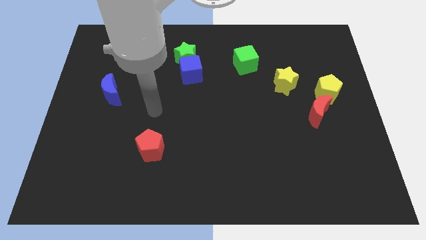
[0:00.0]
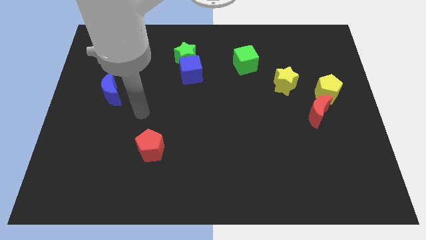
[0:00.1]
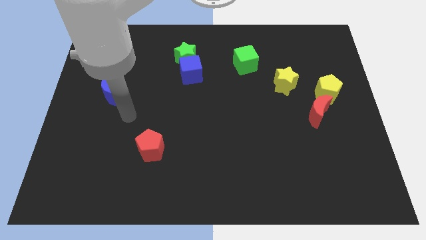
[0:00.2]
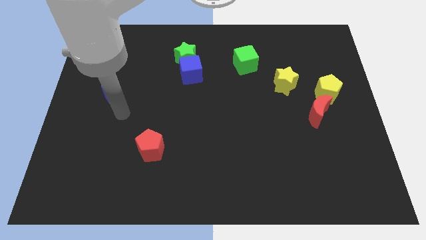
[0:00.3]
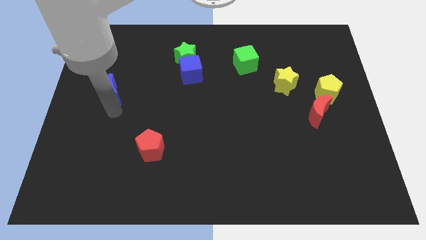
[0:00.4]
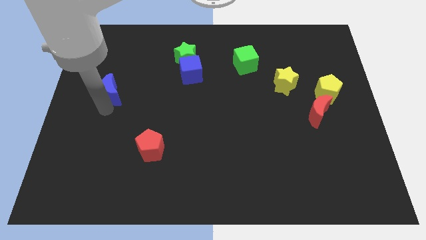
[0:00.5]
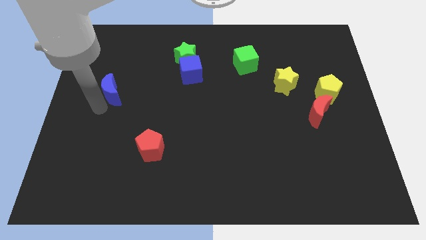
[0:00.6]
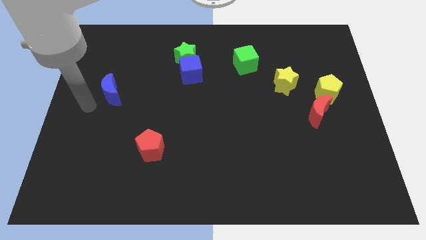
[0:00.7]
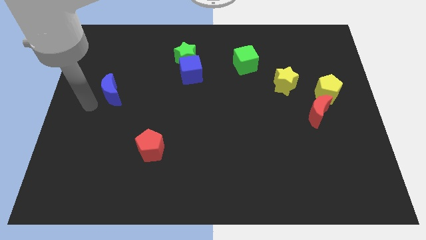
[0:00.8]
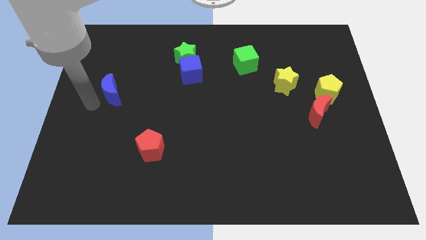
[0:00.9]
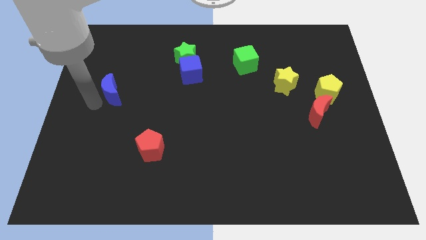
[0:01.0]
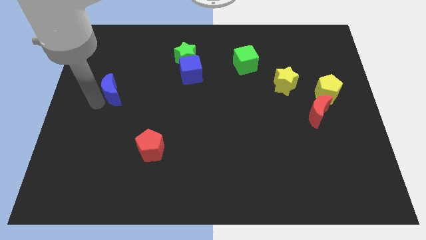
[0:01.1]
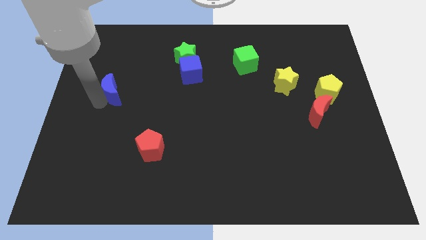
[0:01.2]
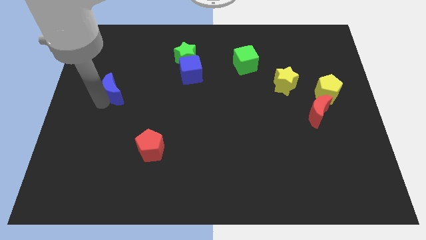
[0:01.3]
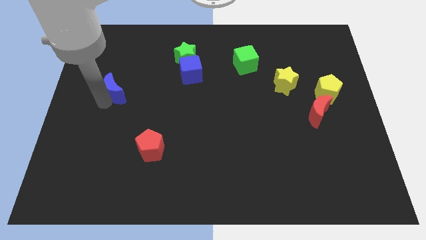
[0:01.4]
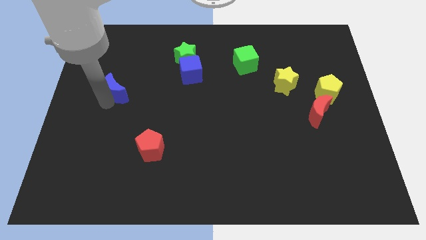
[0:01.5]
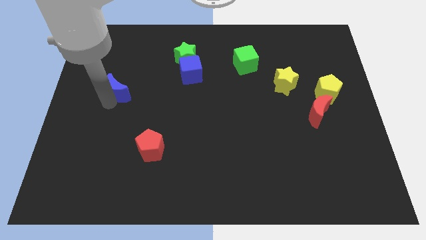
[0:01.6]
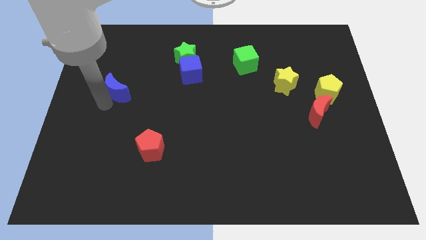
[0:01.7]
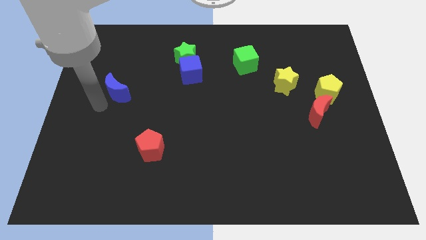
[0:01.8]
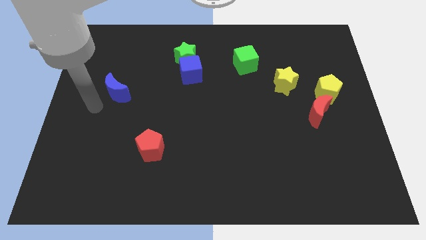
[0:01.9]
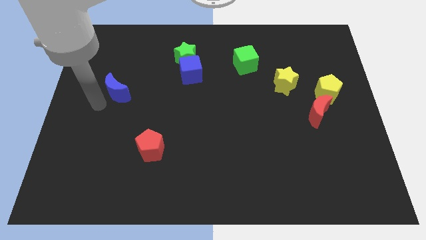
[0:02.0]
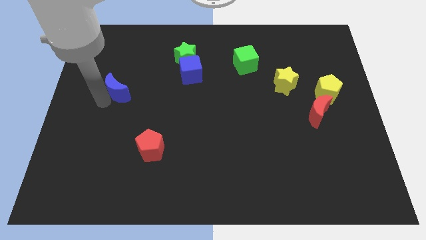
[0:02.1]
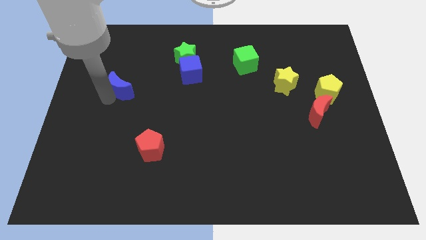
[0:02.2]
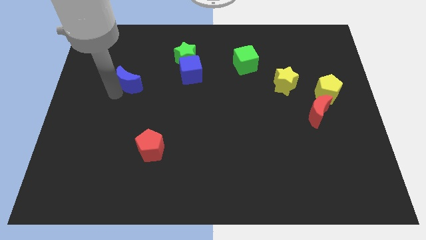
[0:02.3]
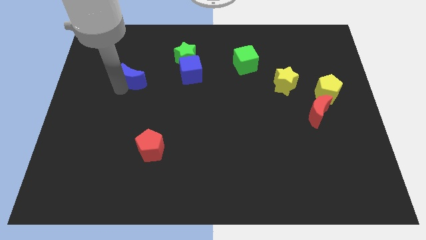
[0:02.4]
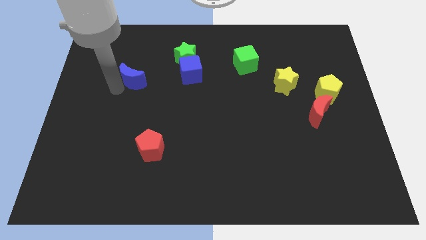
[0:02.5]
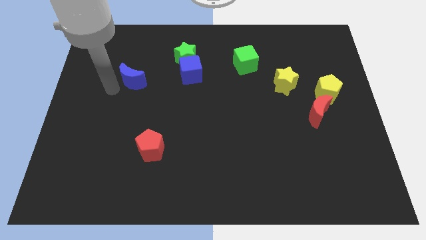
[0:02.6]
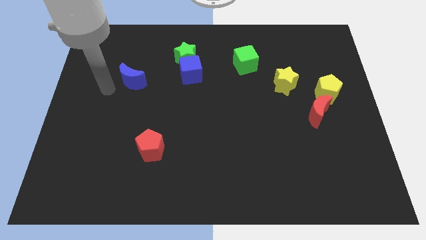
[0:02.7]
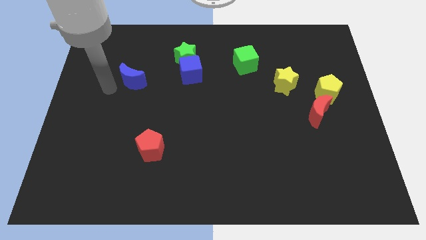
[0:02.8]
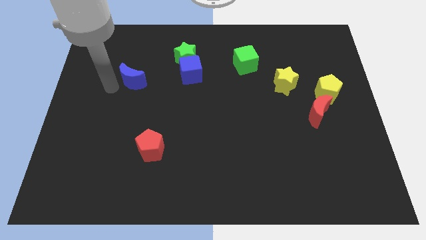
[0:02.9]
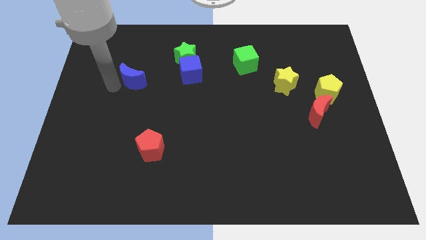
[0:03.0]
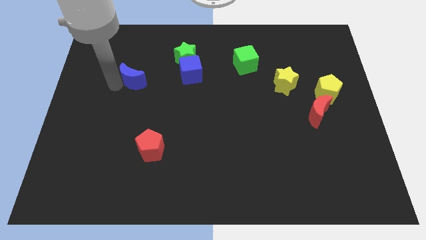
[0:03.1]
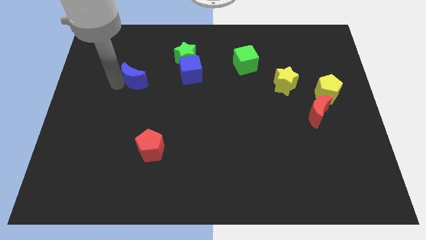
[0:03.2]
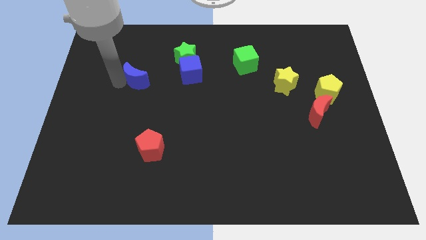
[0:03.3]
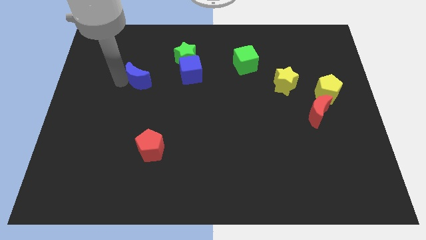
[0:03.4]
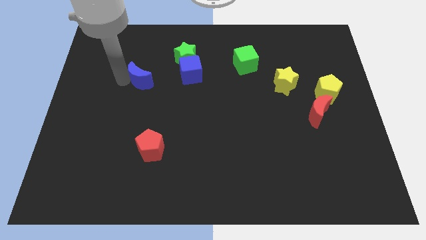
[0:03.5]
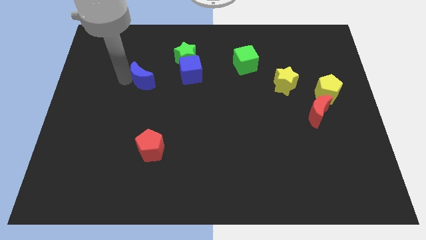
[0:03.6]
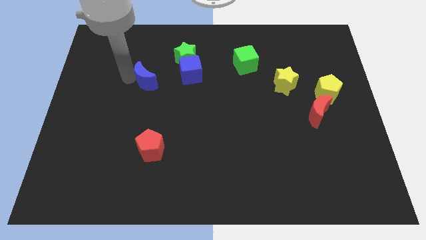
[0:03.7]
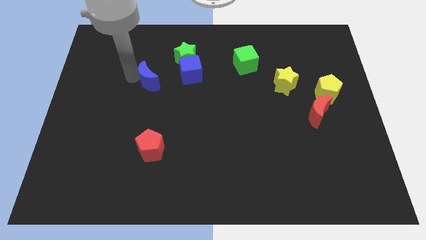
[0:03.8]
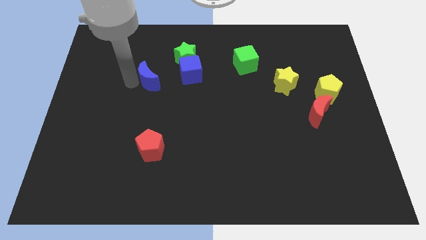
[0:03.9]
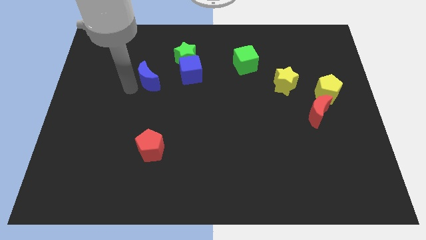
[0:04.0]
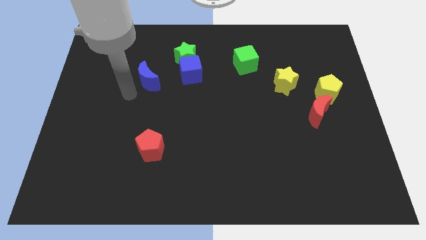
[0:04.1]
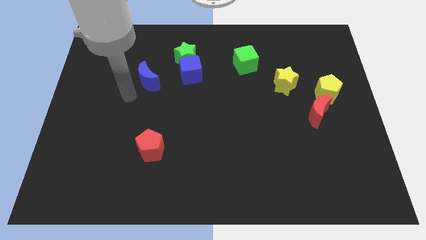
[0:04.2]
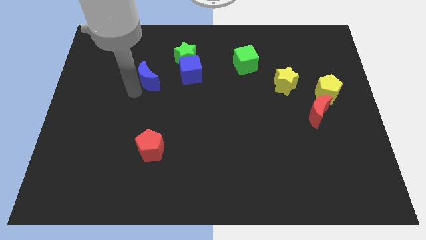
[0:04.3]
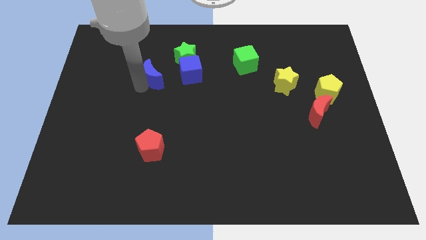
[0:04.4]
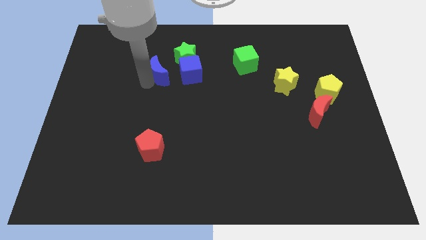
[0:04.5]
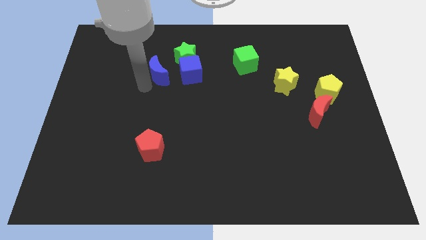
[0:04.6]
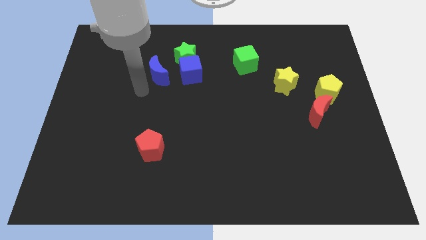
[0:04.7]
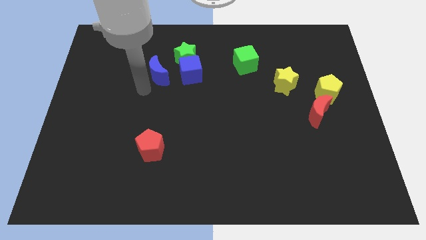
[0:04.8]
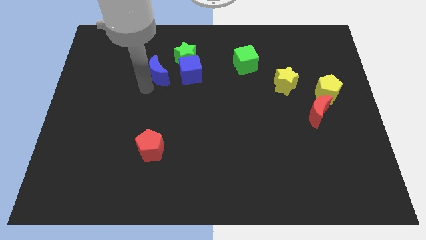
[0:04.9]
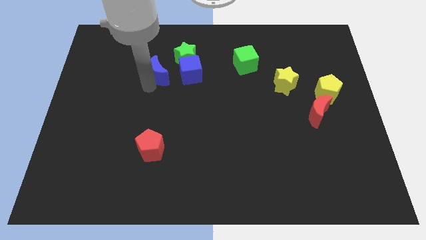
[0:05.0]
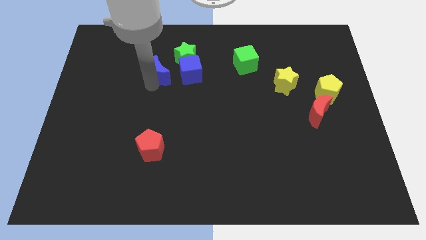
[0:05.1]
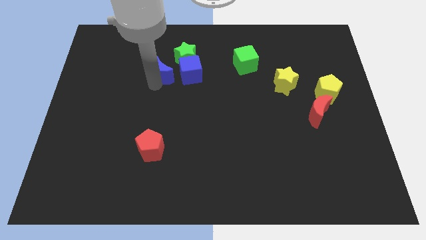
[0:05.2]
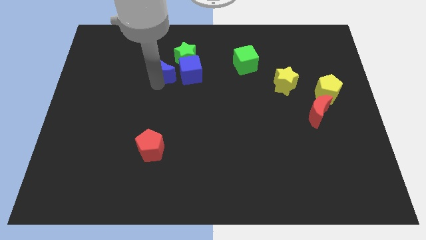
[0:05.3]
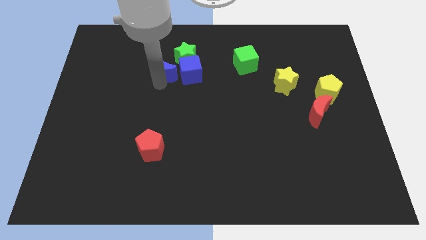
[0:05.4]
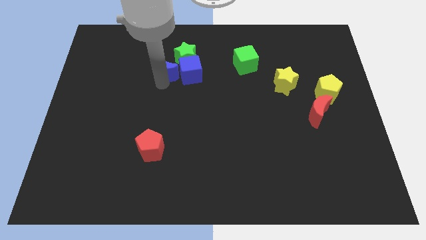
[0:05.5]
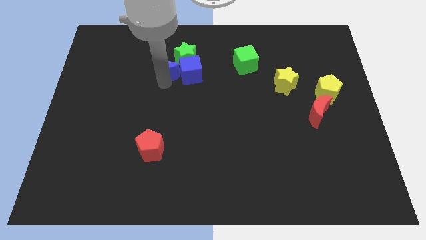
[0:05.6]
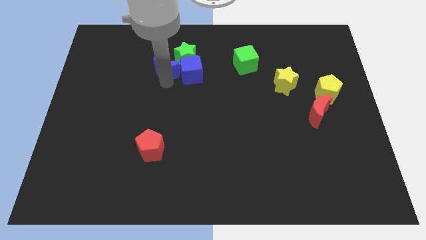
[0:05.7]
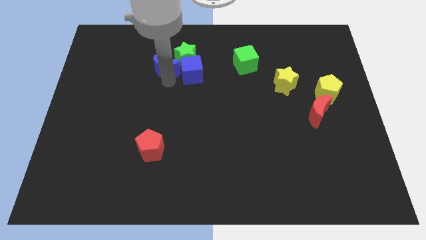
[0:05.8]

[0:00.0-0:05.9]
put the blue moon to the green star
